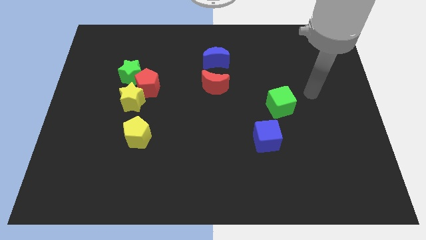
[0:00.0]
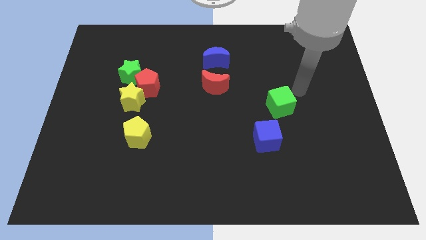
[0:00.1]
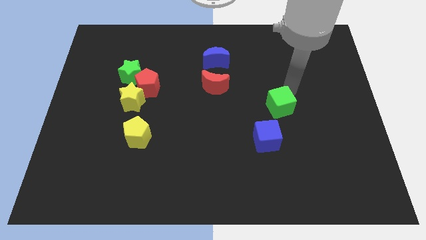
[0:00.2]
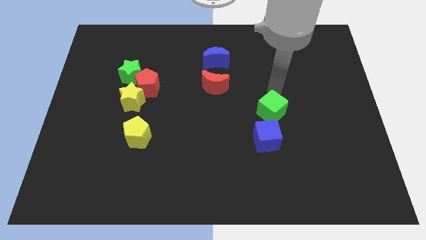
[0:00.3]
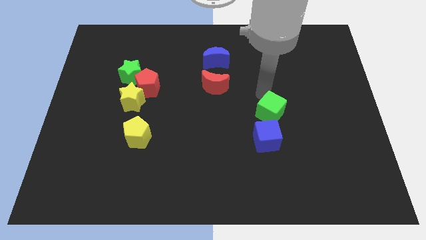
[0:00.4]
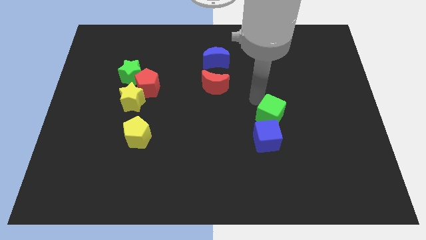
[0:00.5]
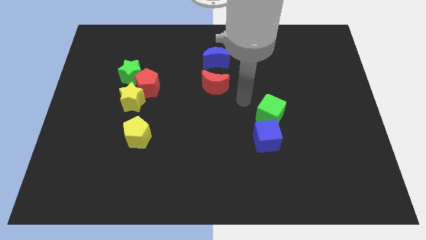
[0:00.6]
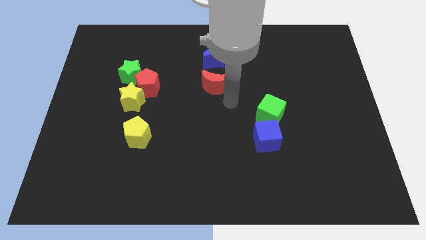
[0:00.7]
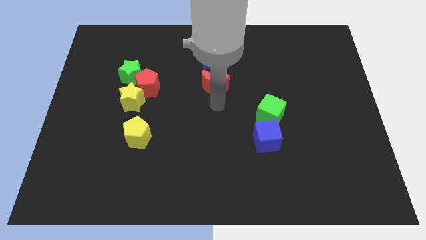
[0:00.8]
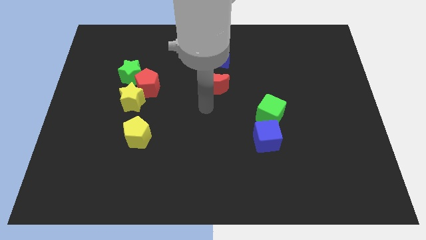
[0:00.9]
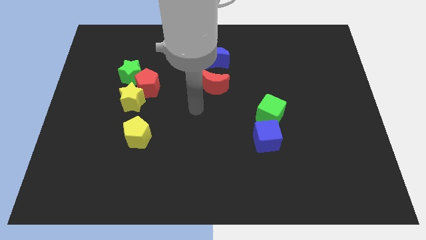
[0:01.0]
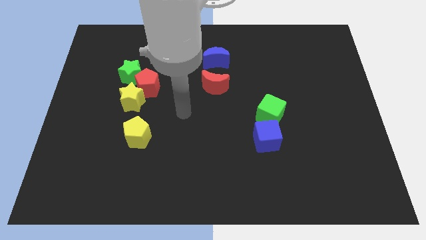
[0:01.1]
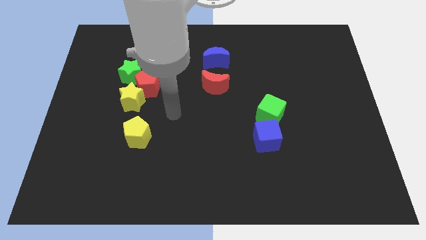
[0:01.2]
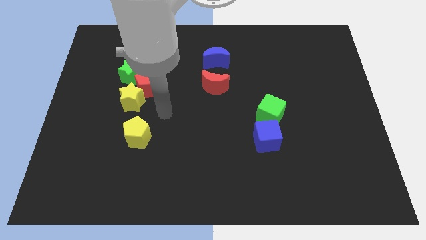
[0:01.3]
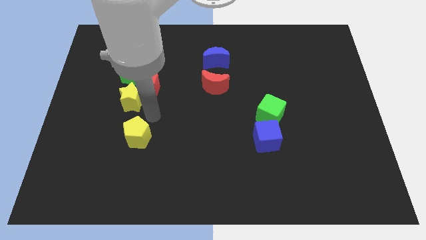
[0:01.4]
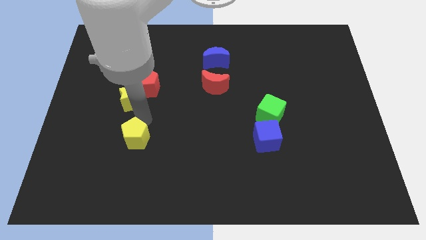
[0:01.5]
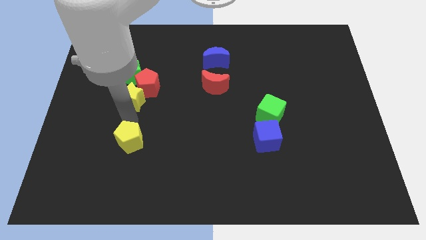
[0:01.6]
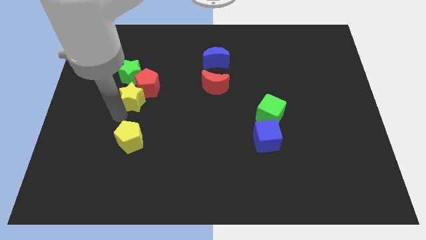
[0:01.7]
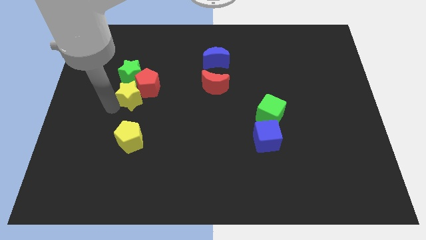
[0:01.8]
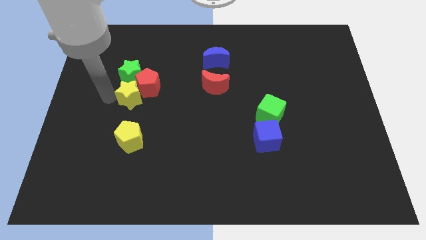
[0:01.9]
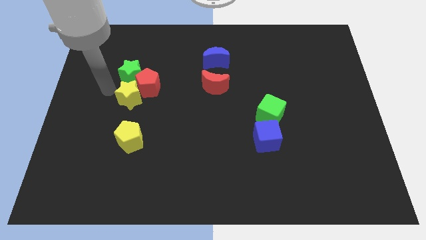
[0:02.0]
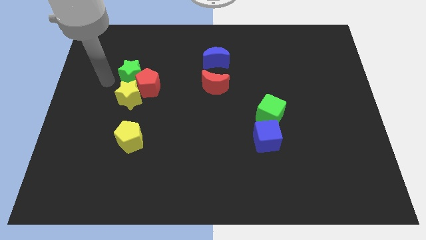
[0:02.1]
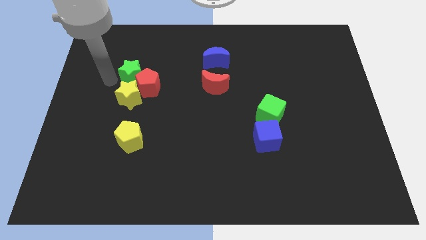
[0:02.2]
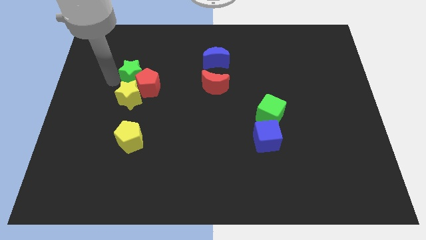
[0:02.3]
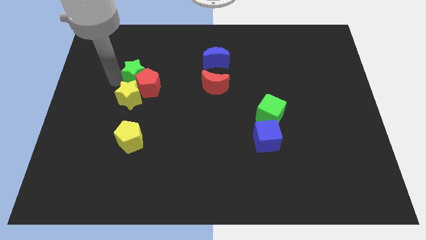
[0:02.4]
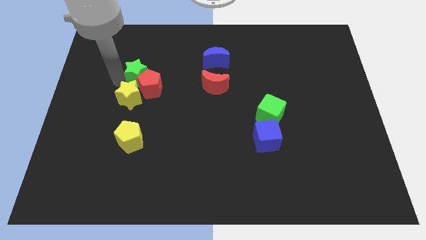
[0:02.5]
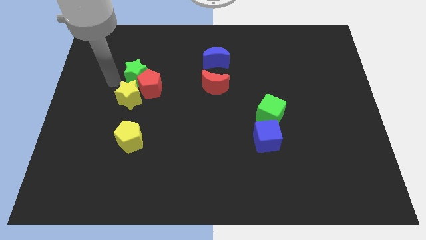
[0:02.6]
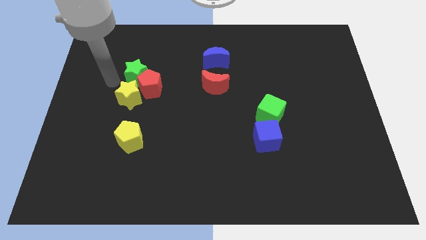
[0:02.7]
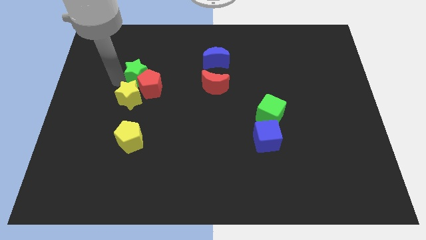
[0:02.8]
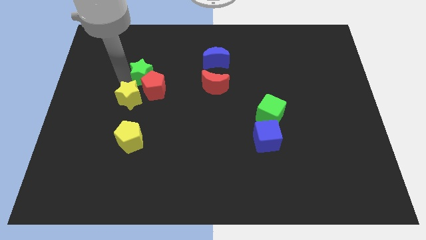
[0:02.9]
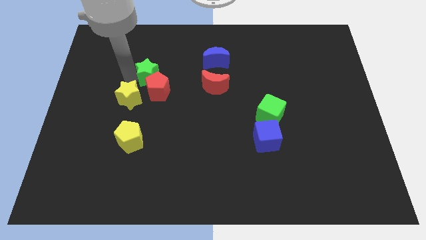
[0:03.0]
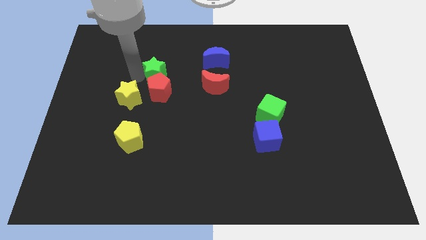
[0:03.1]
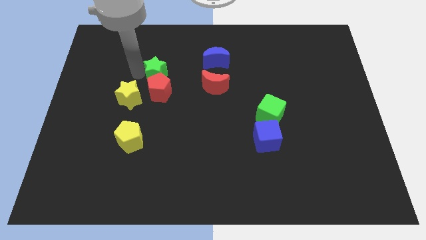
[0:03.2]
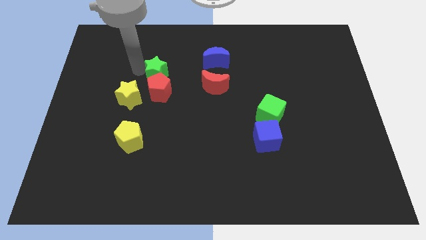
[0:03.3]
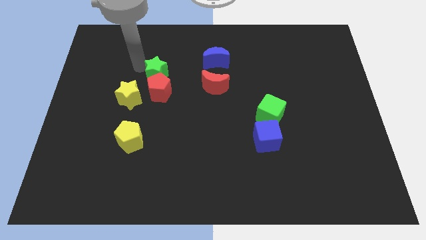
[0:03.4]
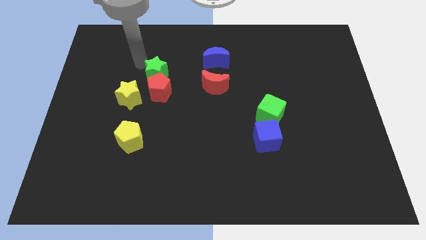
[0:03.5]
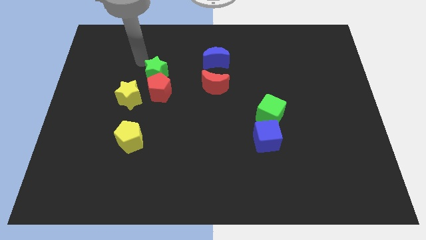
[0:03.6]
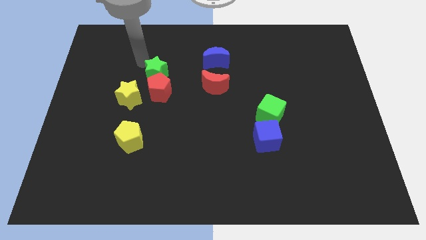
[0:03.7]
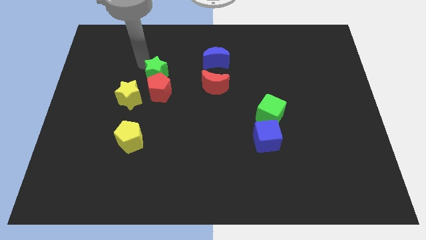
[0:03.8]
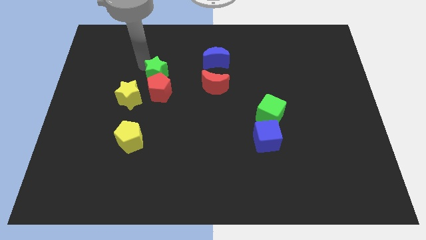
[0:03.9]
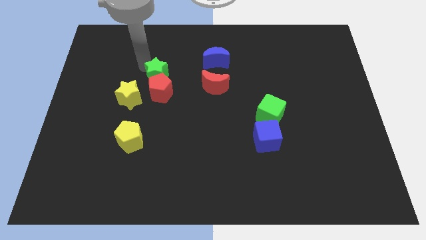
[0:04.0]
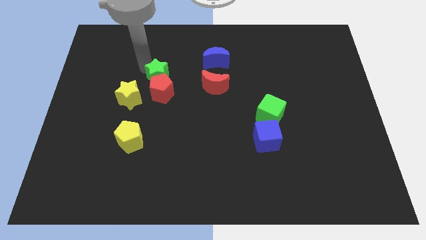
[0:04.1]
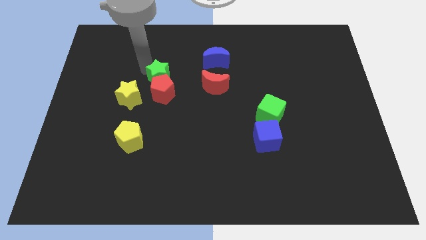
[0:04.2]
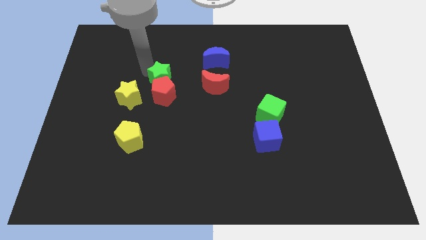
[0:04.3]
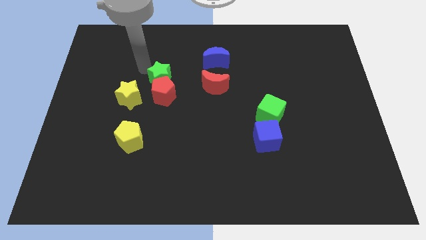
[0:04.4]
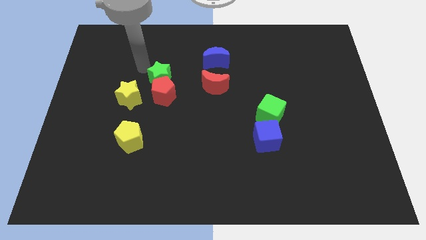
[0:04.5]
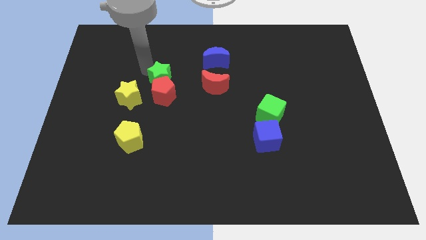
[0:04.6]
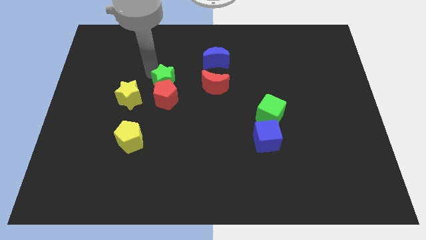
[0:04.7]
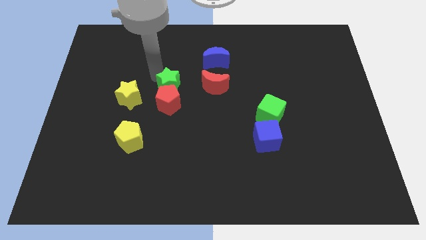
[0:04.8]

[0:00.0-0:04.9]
push the green star to the center of the board

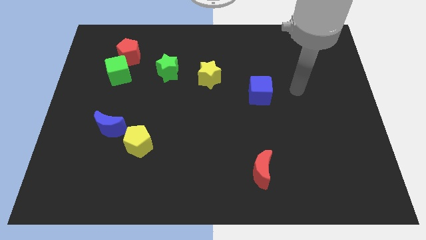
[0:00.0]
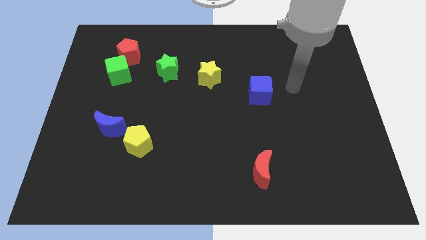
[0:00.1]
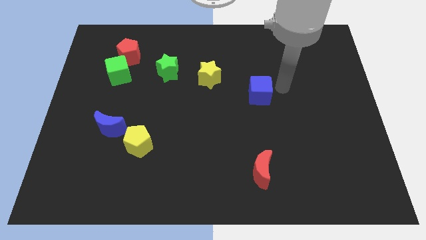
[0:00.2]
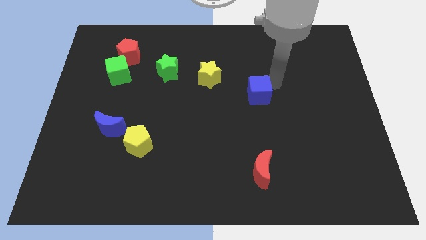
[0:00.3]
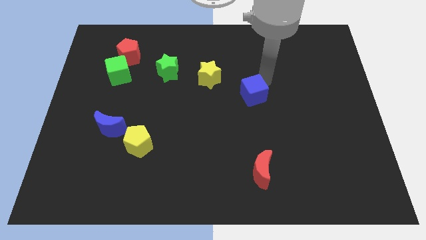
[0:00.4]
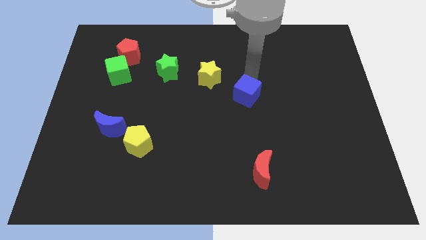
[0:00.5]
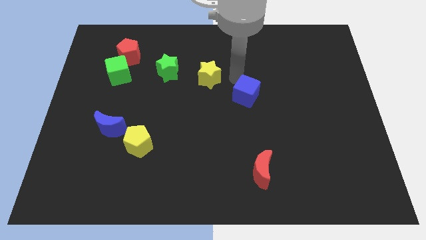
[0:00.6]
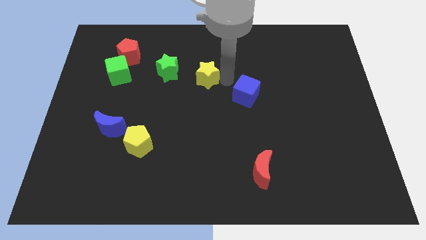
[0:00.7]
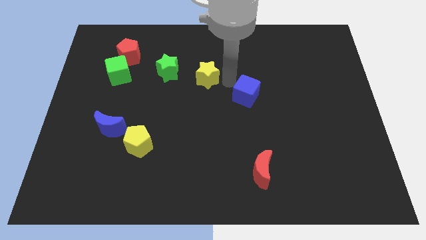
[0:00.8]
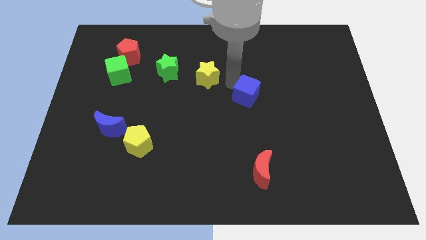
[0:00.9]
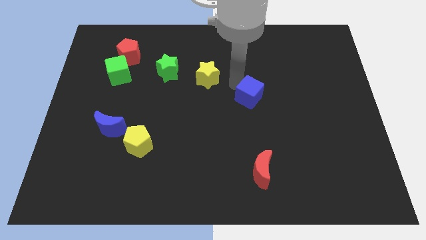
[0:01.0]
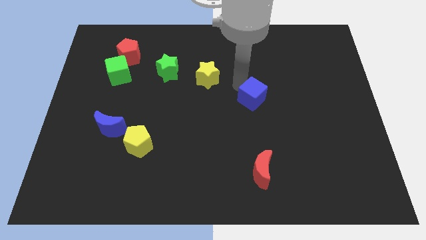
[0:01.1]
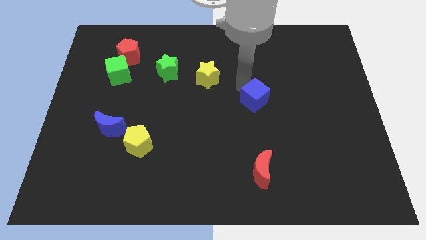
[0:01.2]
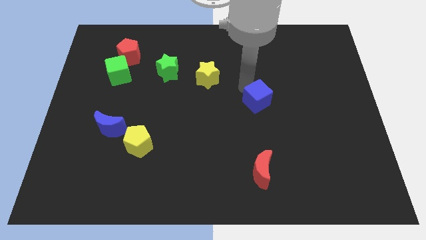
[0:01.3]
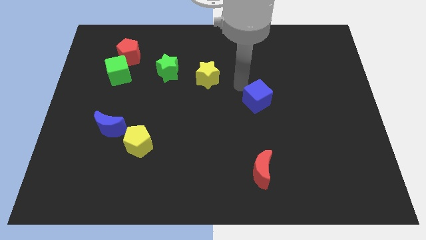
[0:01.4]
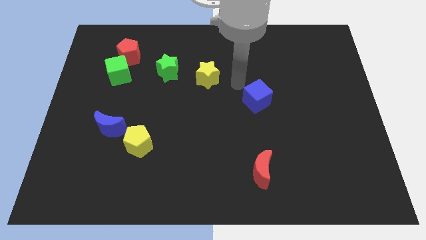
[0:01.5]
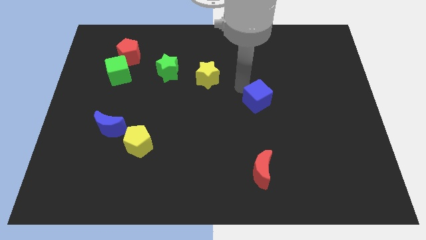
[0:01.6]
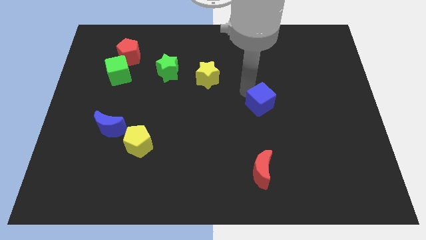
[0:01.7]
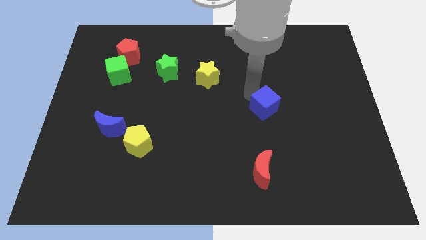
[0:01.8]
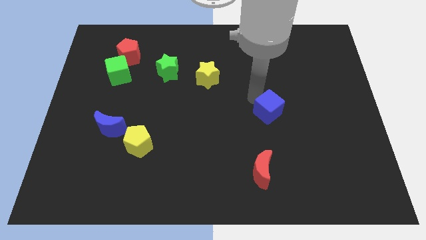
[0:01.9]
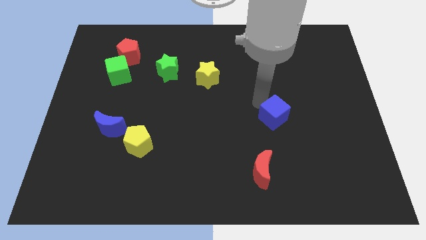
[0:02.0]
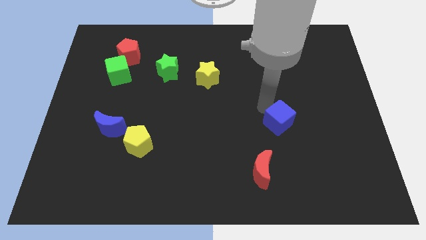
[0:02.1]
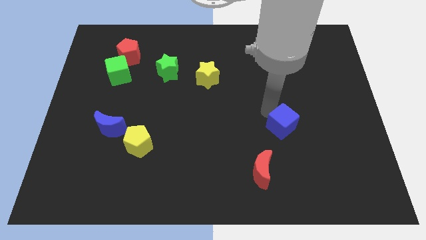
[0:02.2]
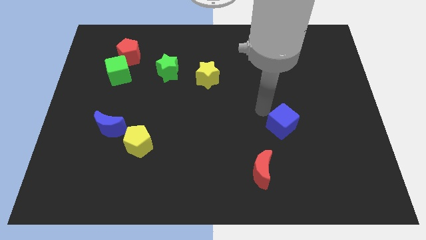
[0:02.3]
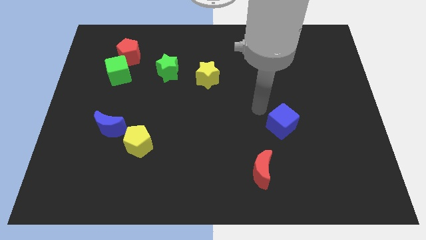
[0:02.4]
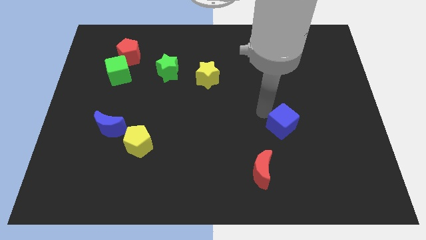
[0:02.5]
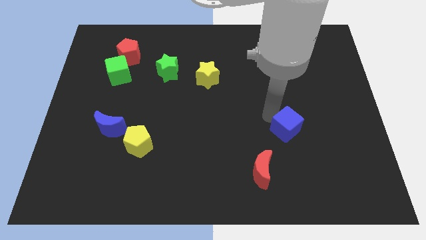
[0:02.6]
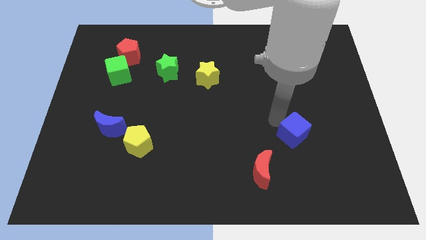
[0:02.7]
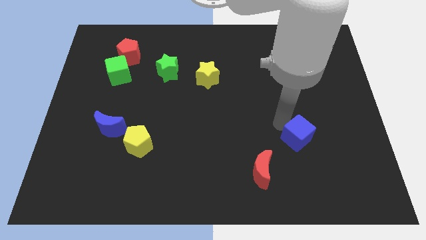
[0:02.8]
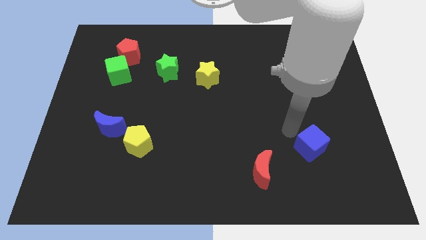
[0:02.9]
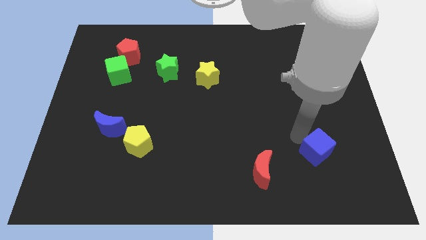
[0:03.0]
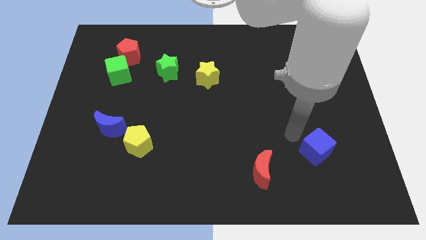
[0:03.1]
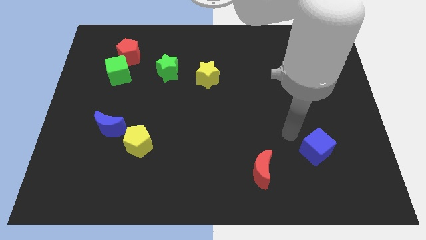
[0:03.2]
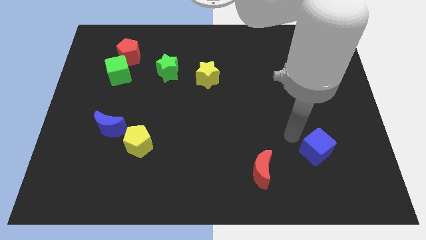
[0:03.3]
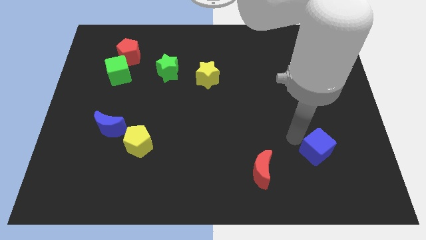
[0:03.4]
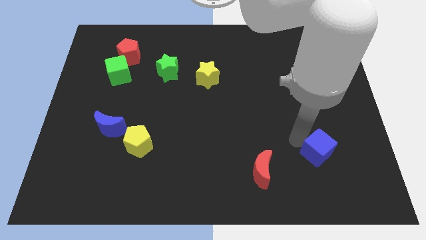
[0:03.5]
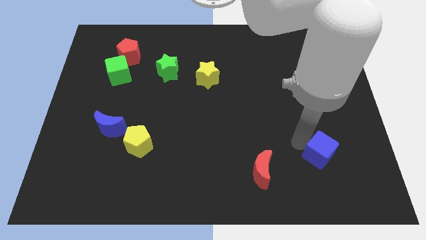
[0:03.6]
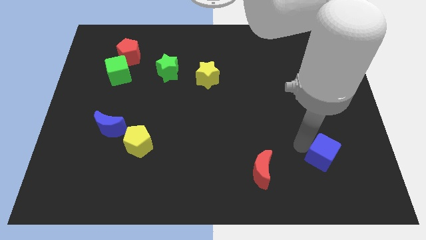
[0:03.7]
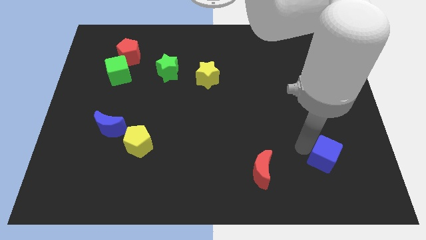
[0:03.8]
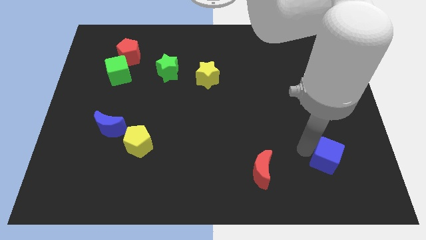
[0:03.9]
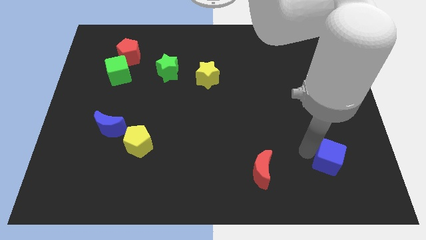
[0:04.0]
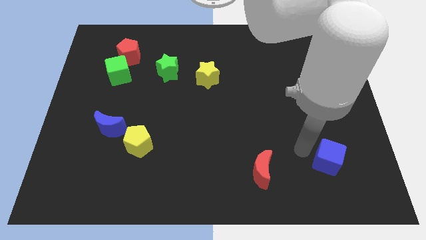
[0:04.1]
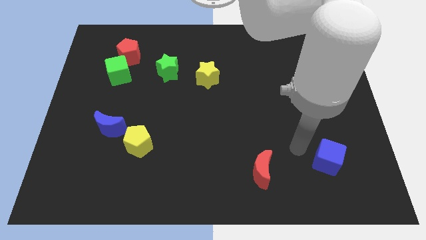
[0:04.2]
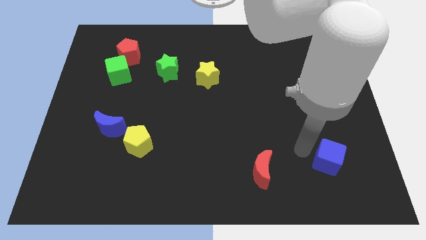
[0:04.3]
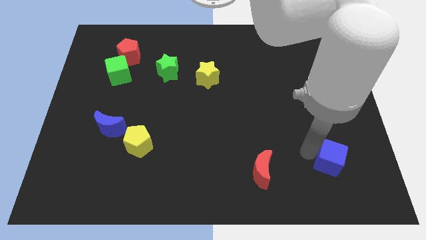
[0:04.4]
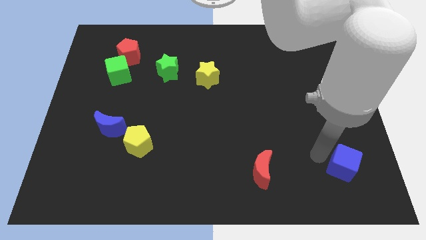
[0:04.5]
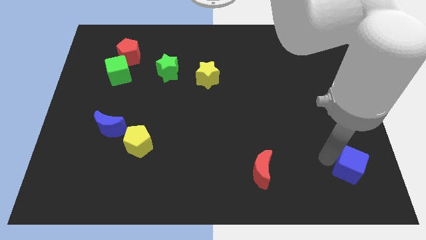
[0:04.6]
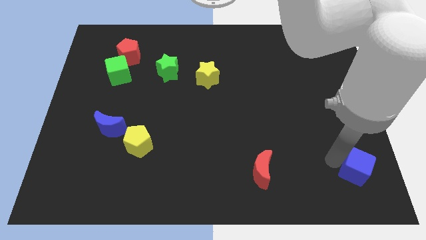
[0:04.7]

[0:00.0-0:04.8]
move the blue cube to the lower right corner
